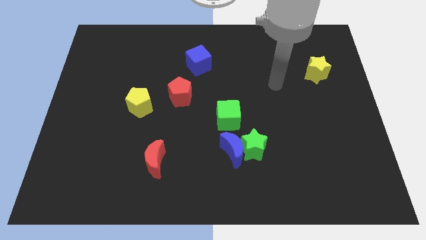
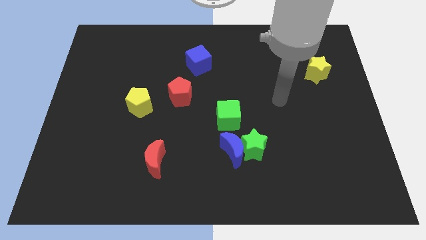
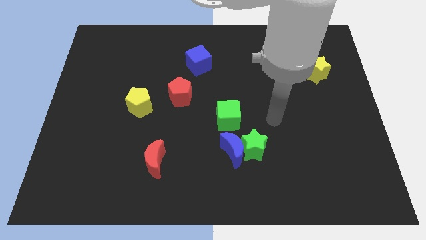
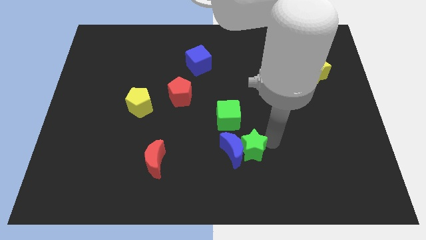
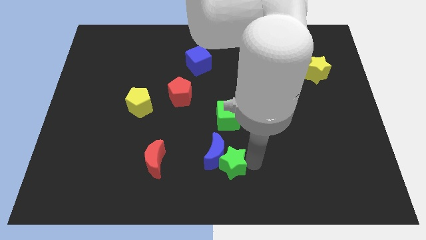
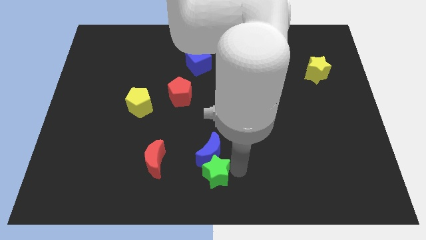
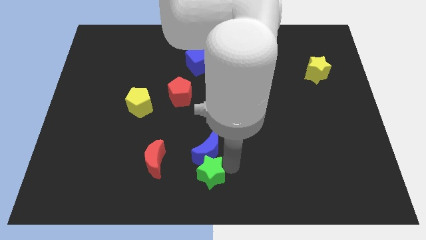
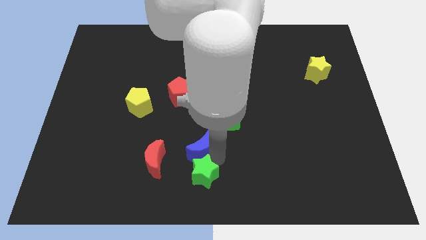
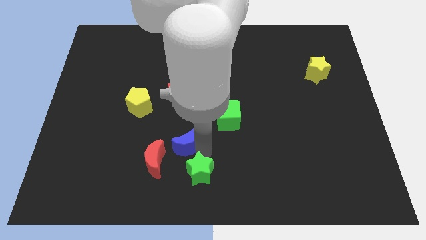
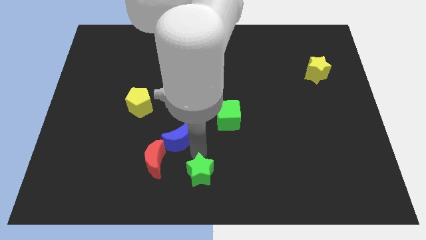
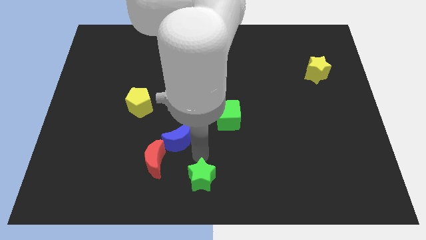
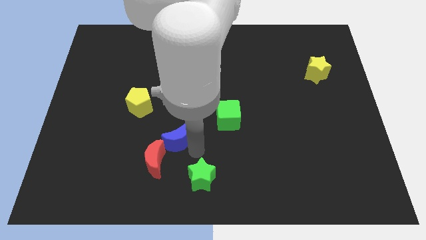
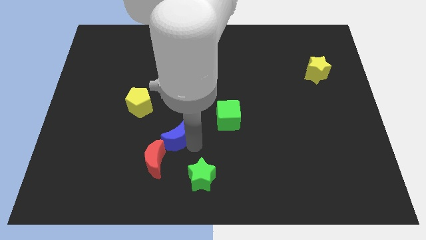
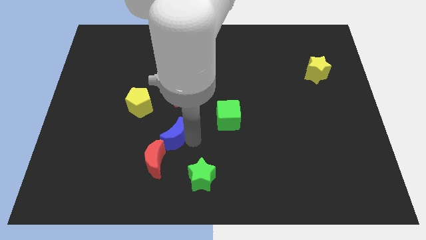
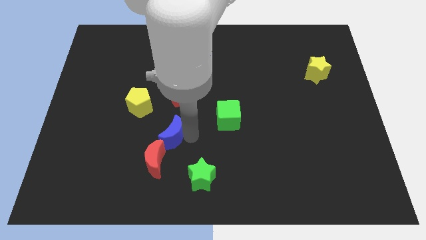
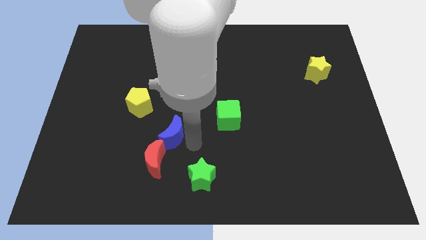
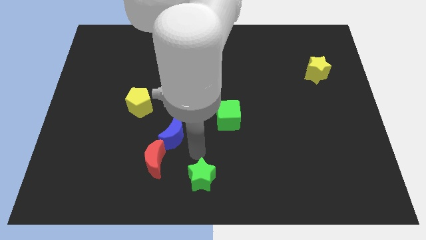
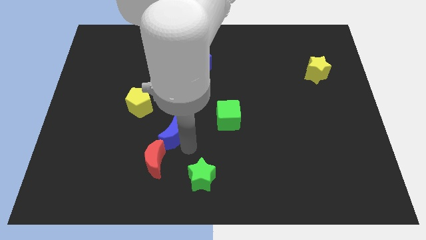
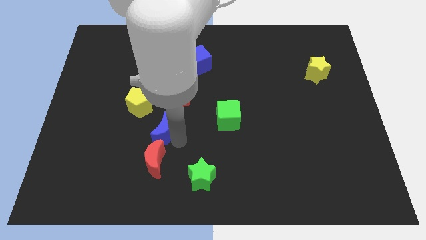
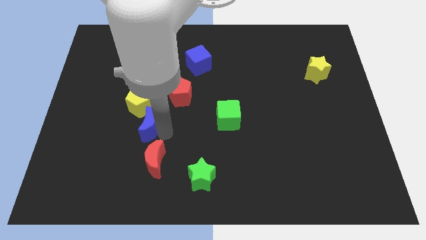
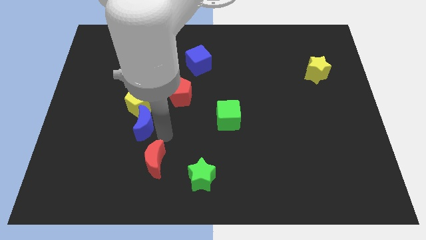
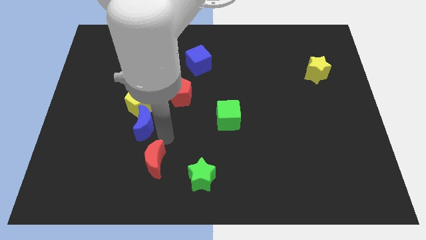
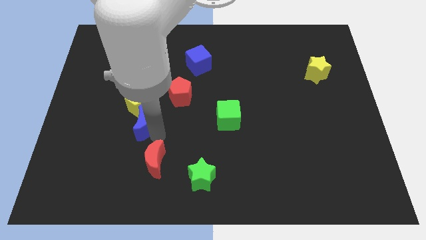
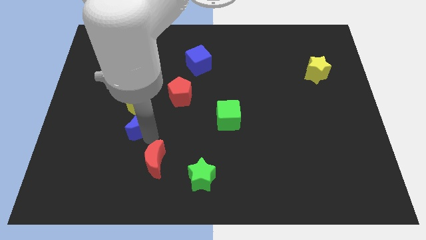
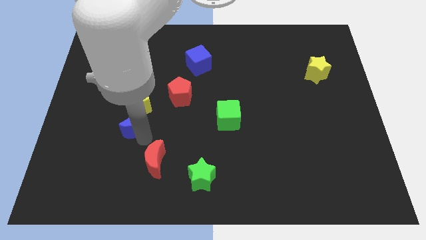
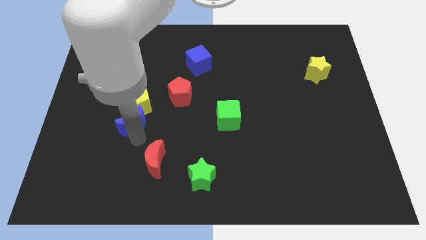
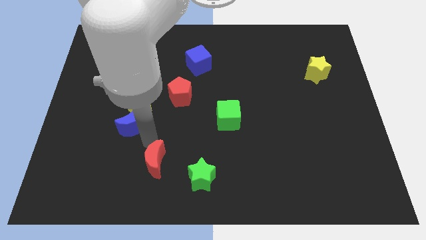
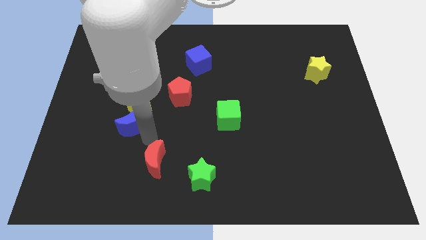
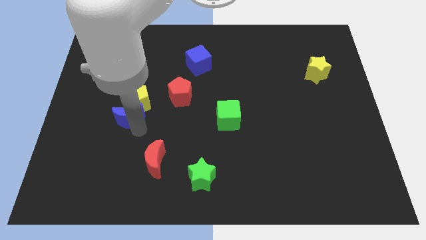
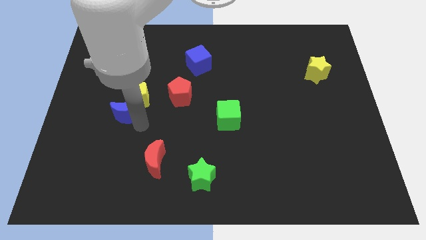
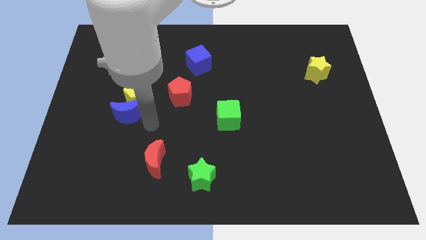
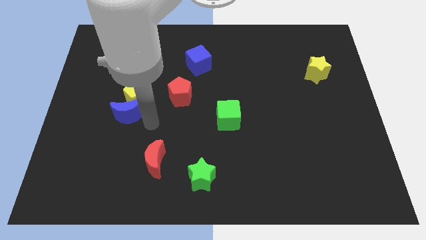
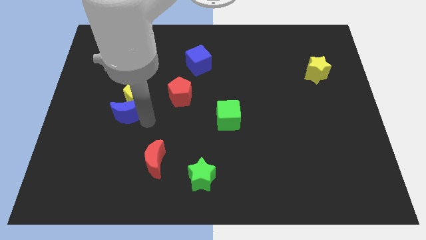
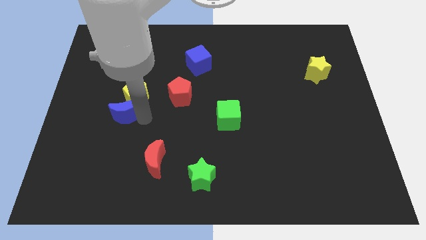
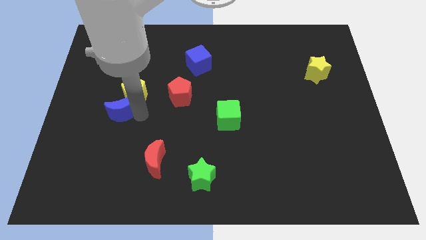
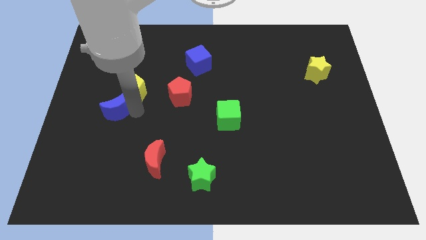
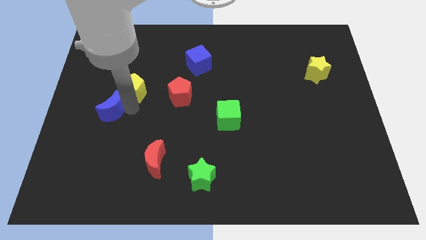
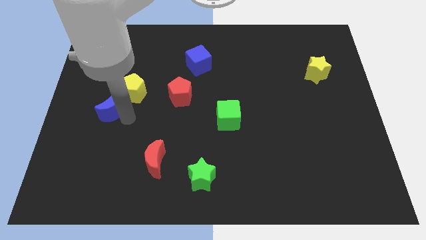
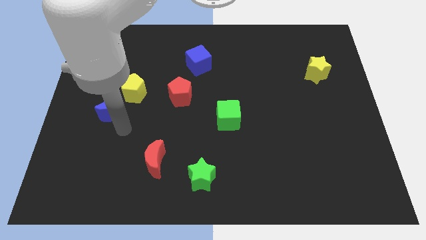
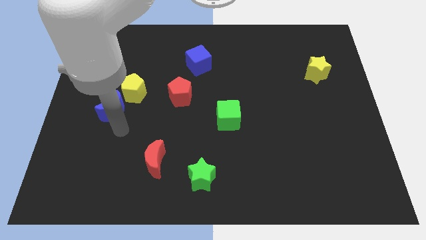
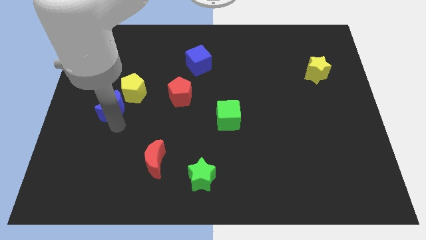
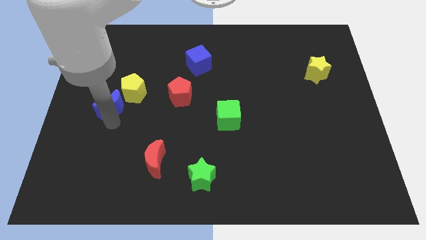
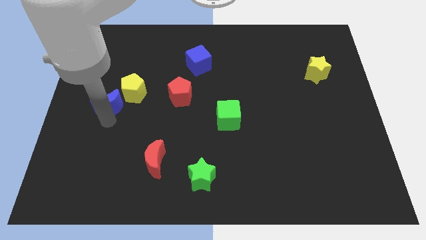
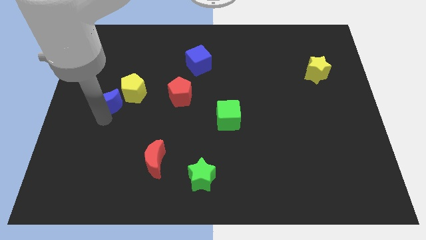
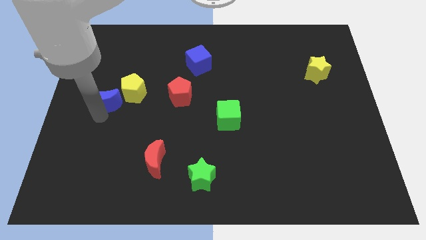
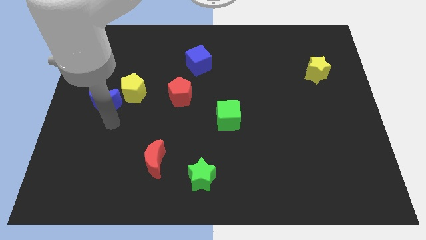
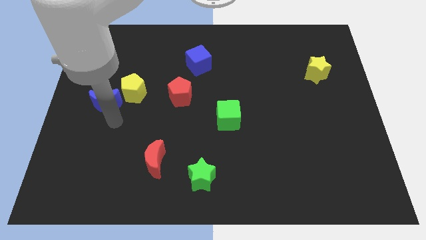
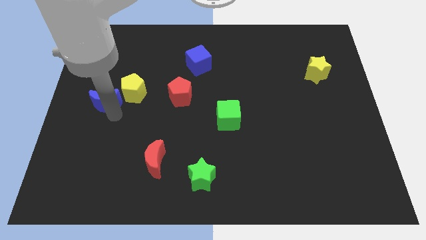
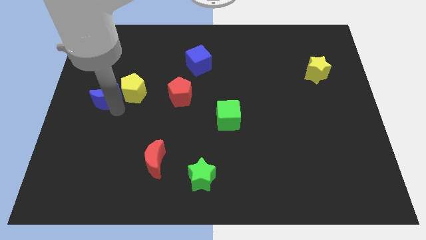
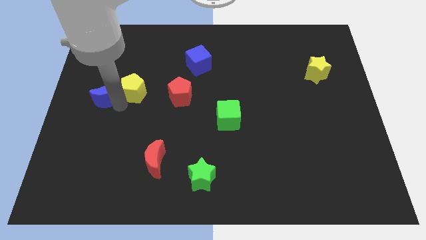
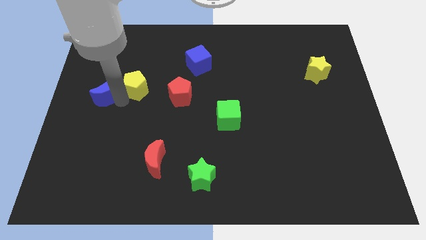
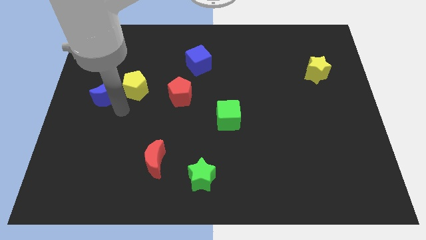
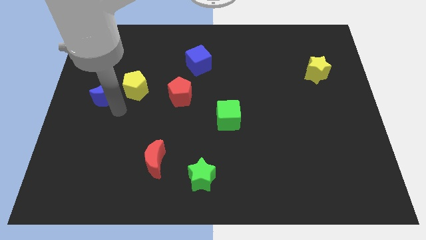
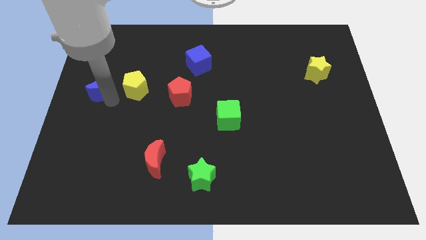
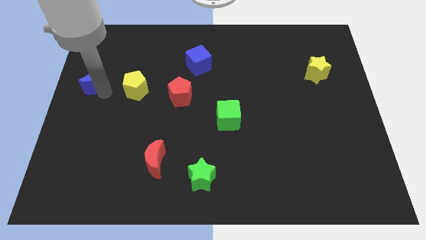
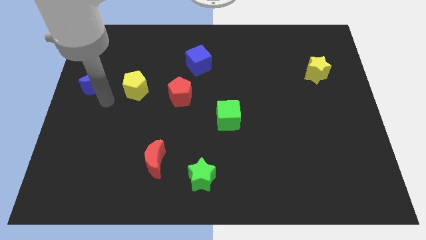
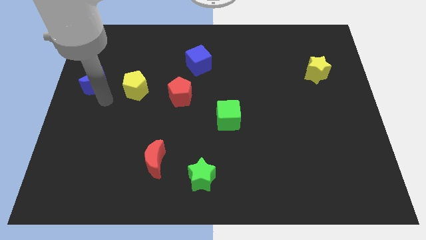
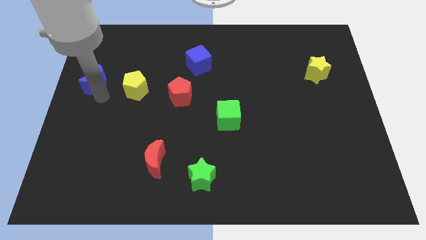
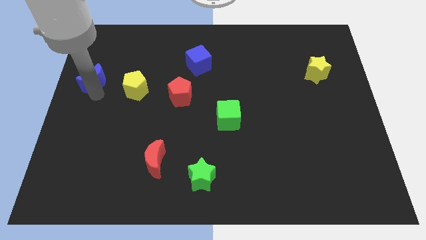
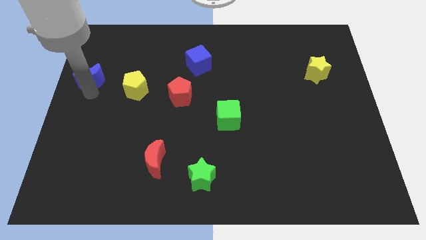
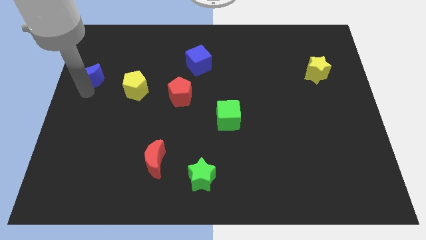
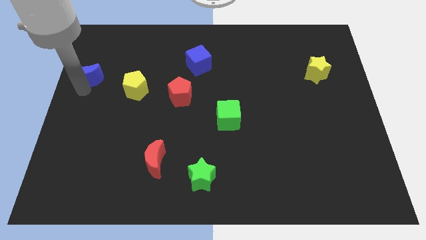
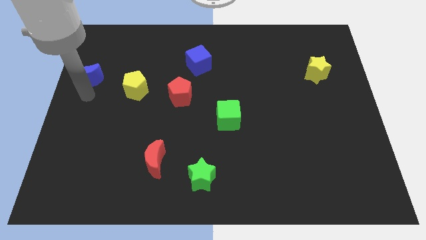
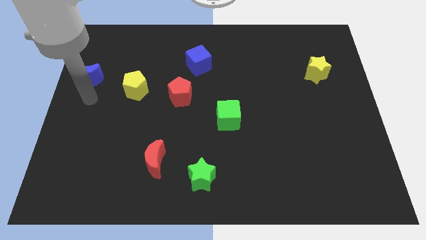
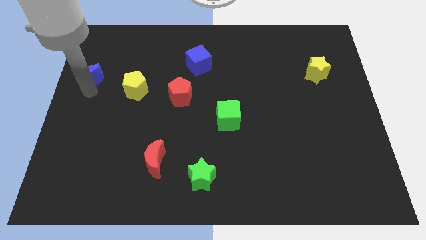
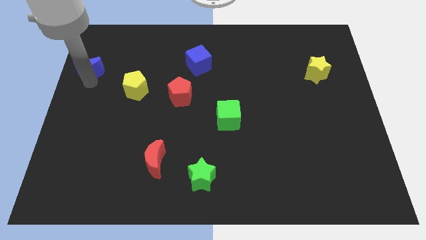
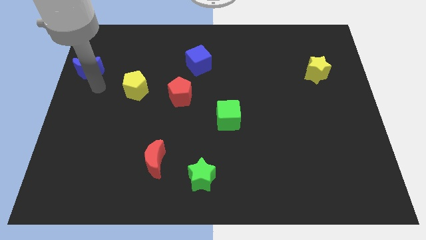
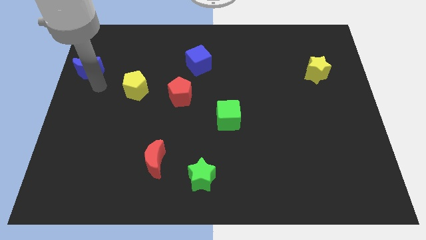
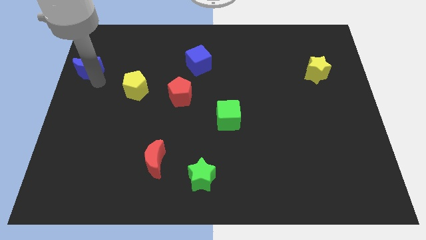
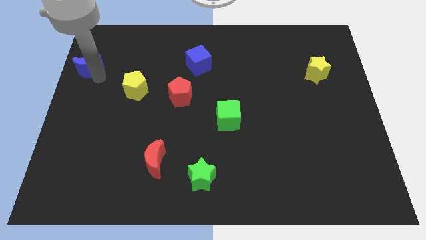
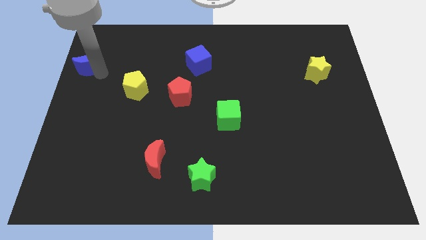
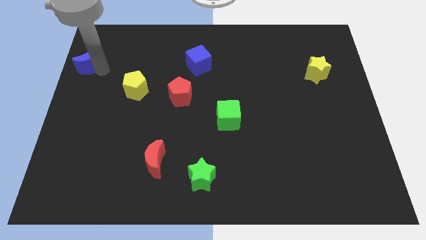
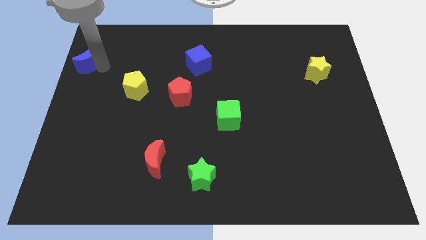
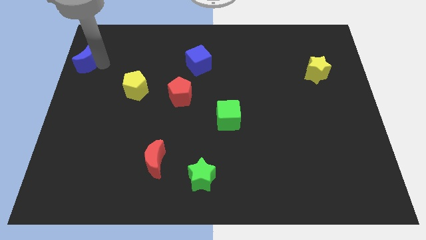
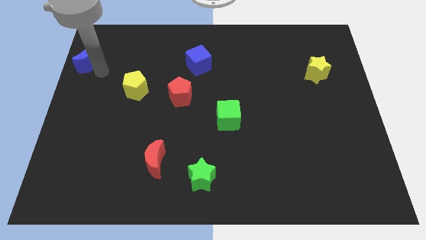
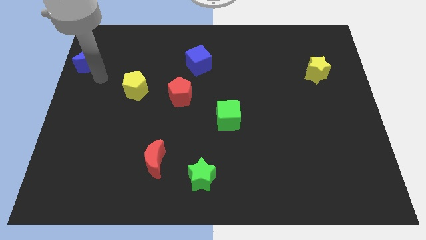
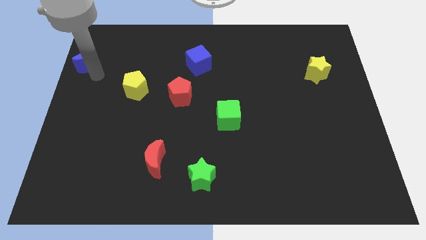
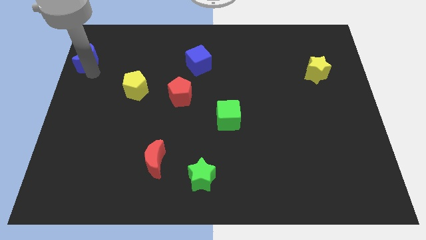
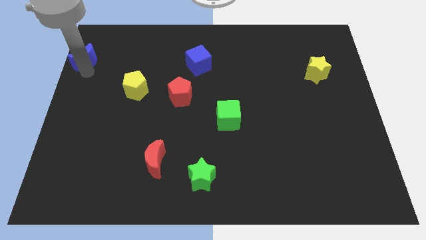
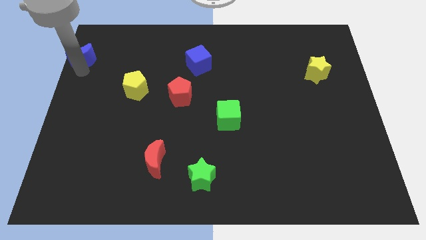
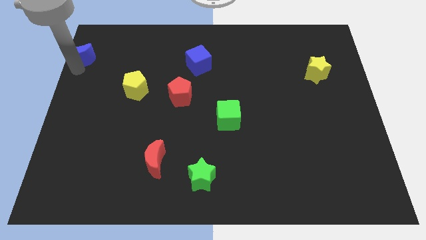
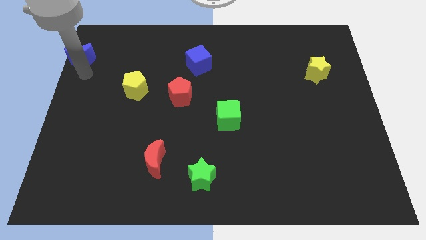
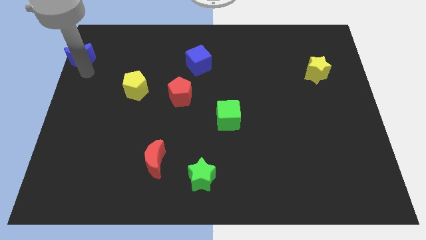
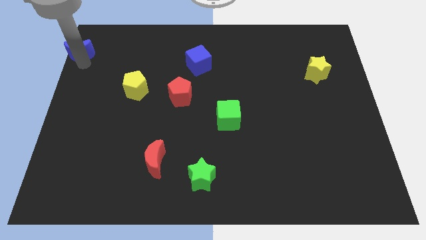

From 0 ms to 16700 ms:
push the blue moon to the top left
